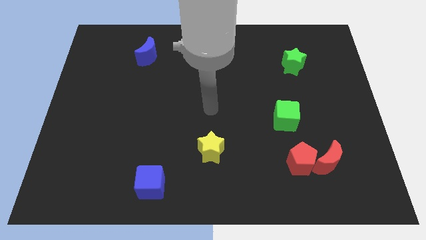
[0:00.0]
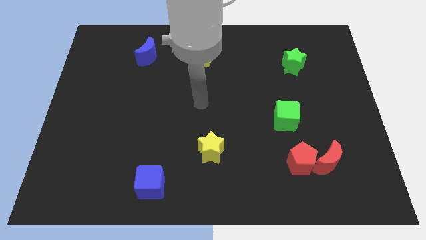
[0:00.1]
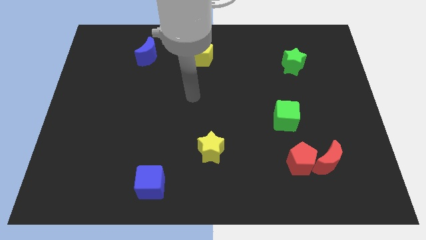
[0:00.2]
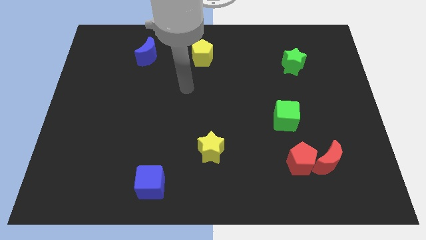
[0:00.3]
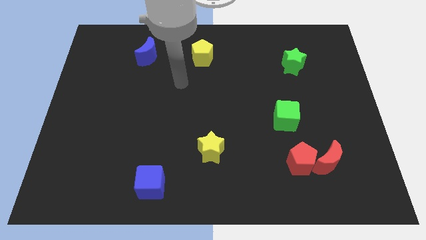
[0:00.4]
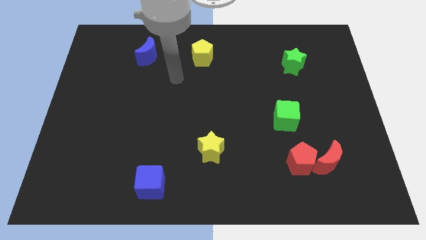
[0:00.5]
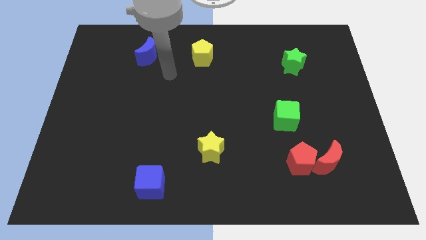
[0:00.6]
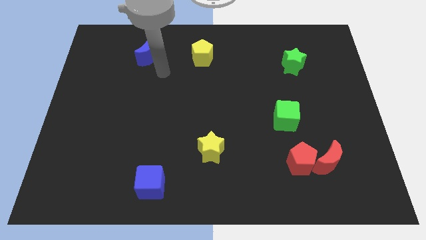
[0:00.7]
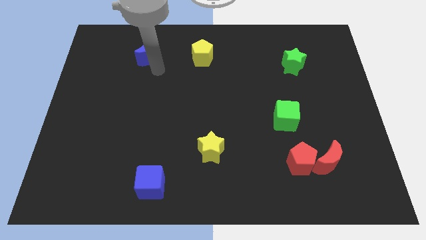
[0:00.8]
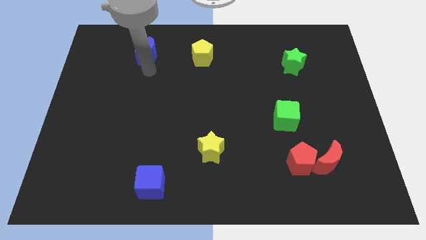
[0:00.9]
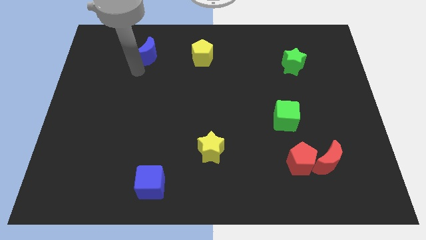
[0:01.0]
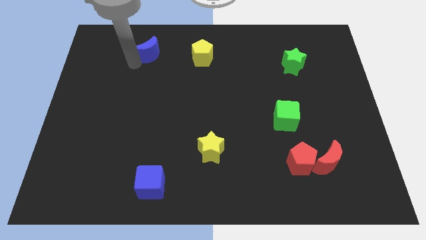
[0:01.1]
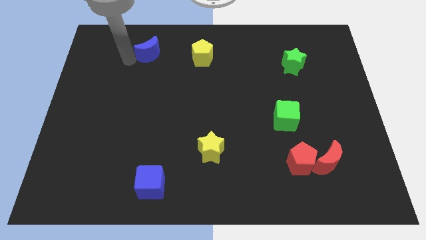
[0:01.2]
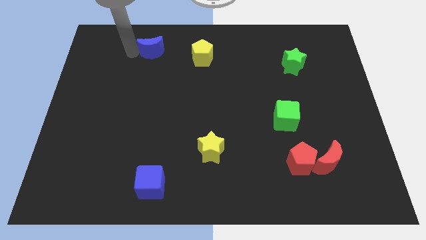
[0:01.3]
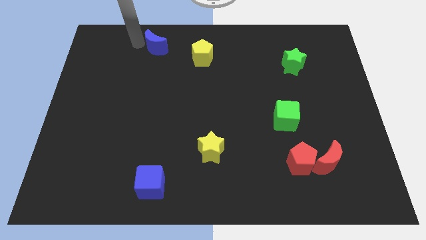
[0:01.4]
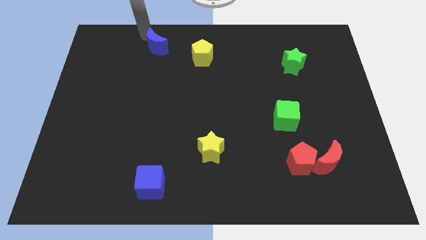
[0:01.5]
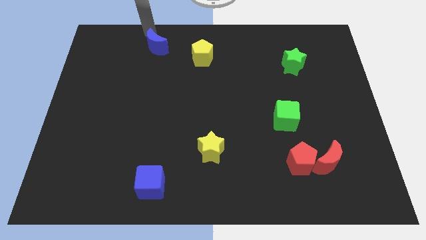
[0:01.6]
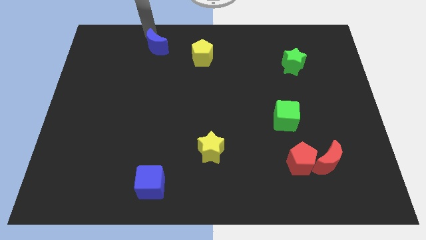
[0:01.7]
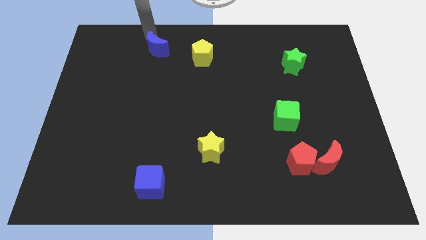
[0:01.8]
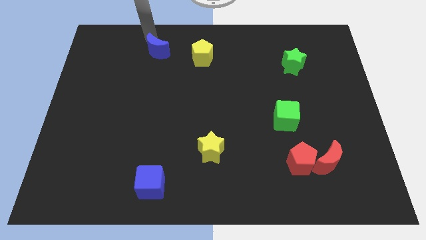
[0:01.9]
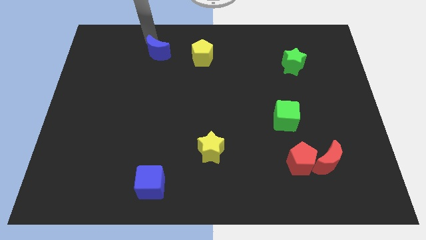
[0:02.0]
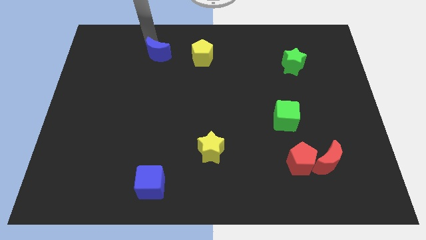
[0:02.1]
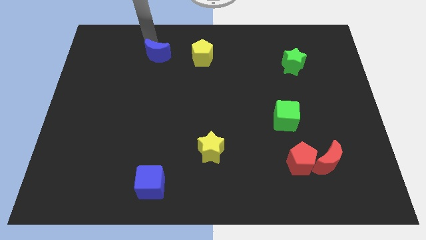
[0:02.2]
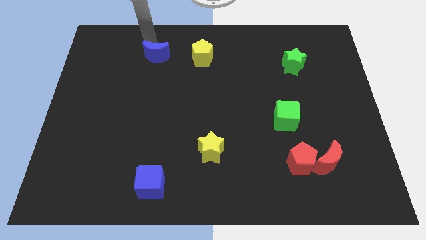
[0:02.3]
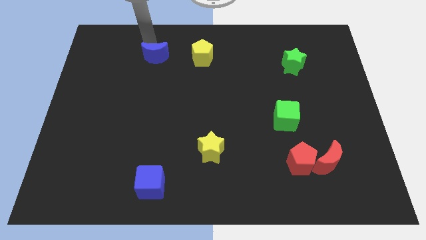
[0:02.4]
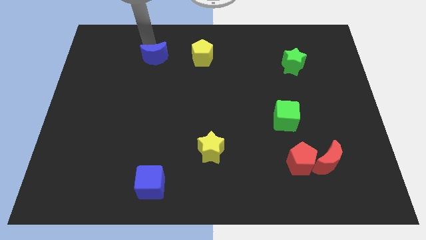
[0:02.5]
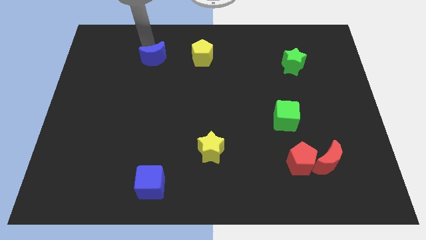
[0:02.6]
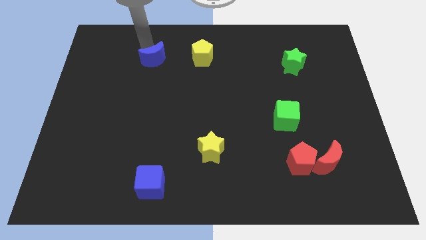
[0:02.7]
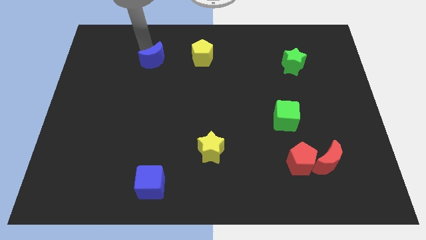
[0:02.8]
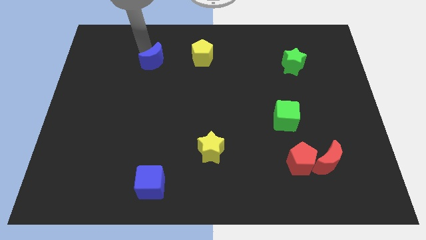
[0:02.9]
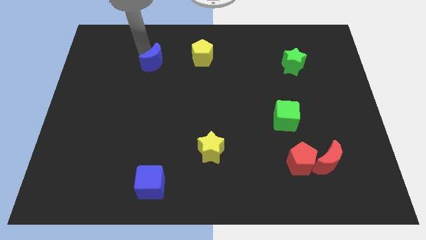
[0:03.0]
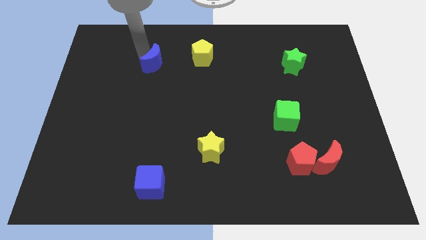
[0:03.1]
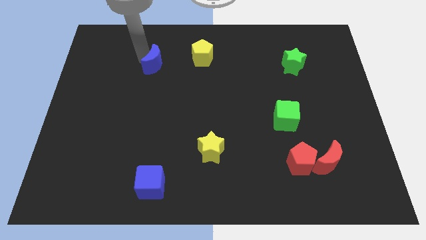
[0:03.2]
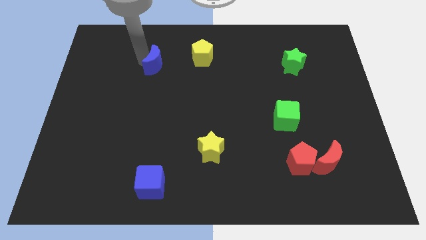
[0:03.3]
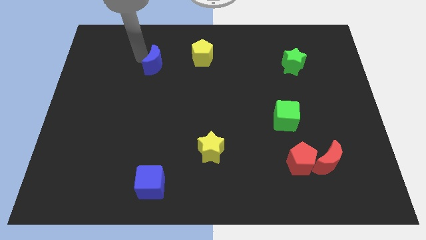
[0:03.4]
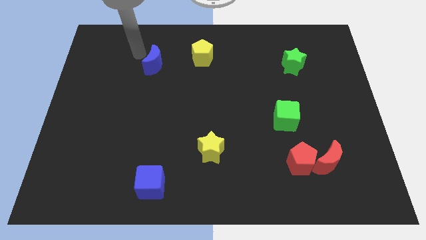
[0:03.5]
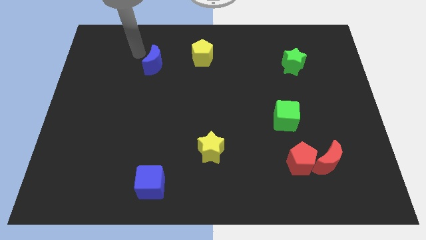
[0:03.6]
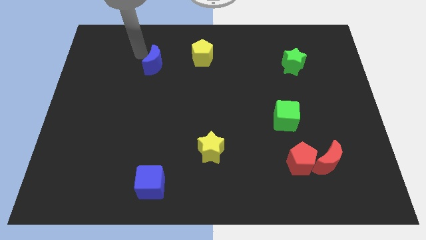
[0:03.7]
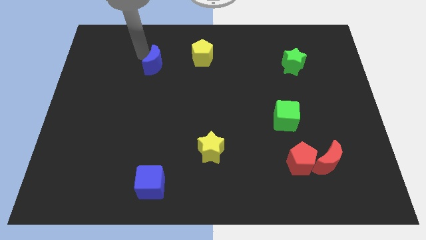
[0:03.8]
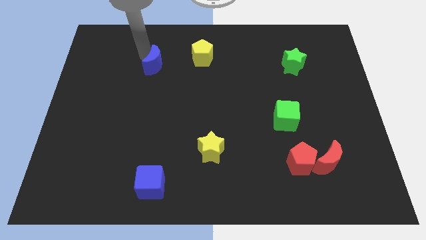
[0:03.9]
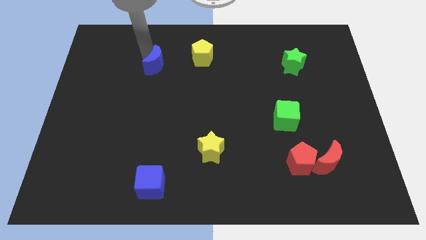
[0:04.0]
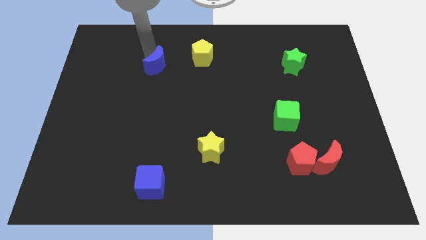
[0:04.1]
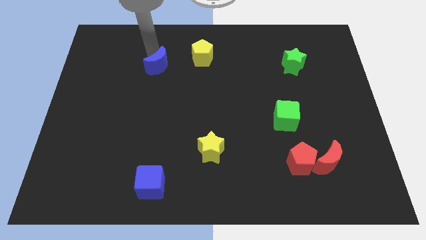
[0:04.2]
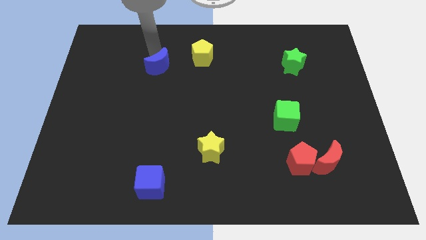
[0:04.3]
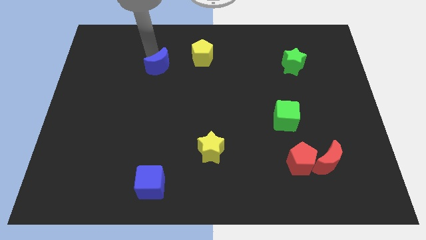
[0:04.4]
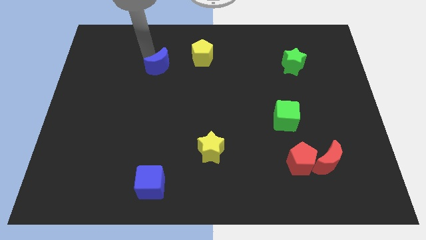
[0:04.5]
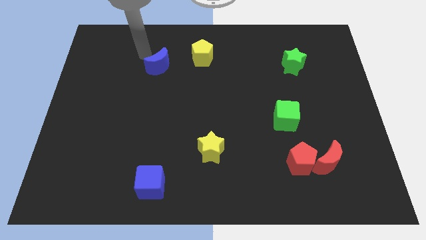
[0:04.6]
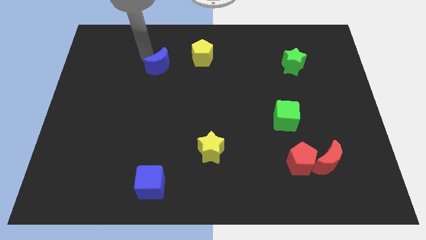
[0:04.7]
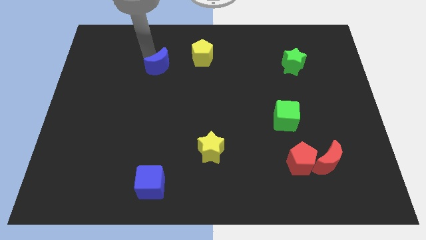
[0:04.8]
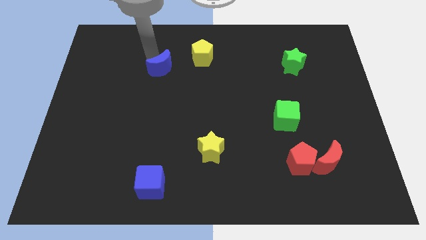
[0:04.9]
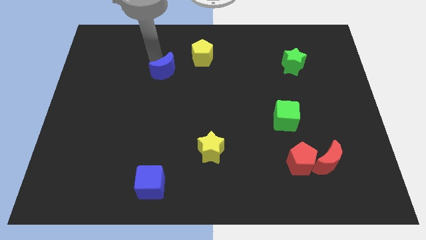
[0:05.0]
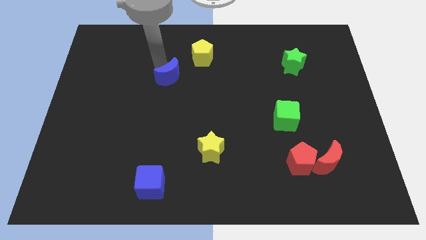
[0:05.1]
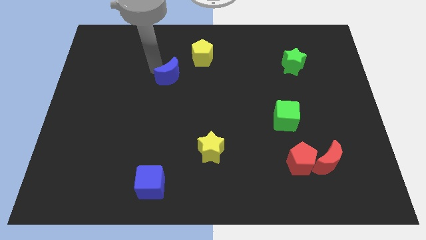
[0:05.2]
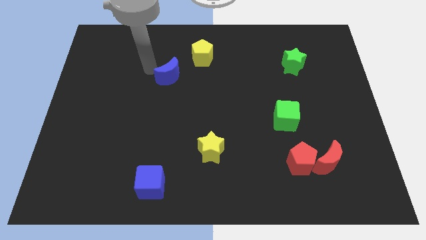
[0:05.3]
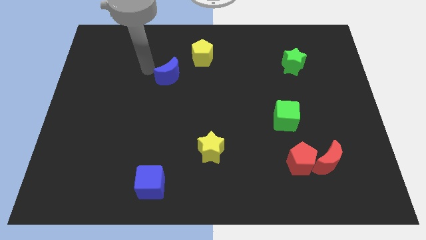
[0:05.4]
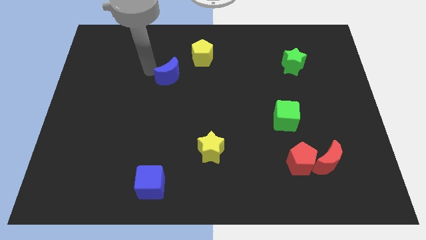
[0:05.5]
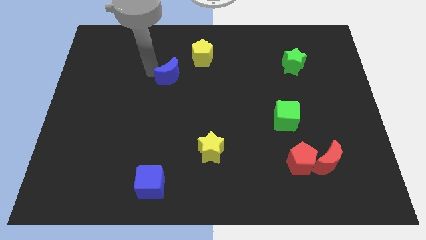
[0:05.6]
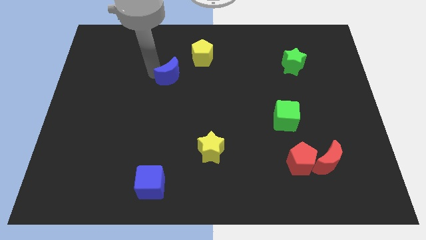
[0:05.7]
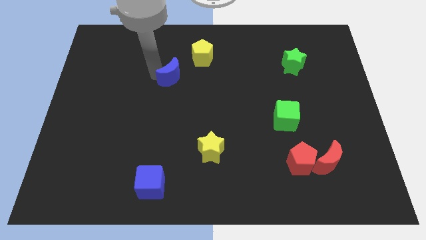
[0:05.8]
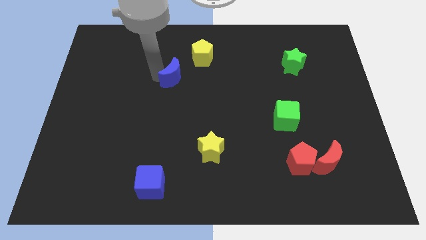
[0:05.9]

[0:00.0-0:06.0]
put the blue moon to the middle
